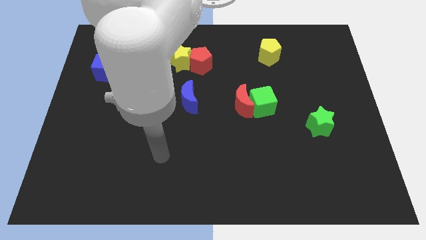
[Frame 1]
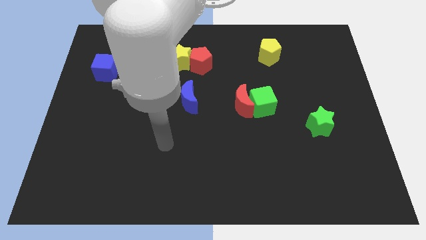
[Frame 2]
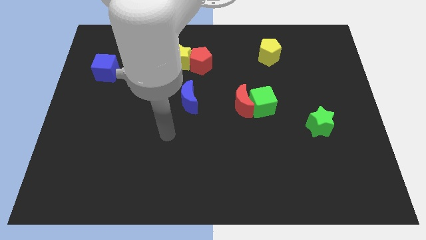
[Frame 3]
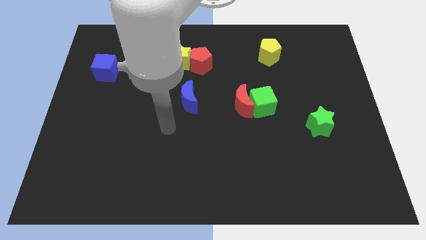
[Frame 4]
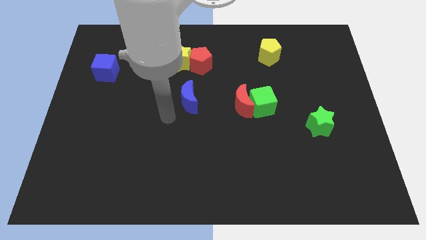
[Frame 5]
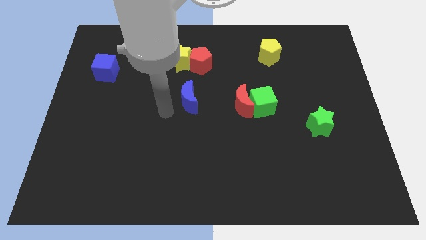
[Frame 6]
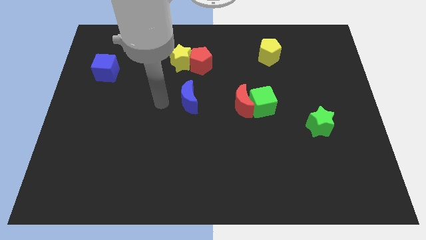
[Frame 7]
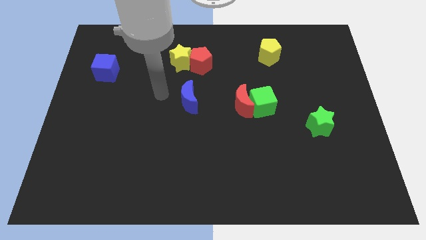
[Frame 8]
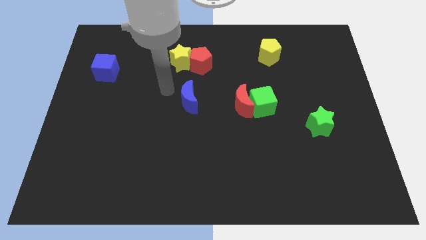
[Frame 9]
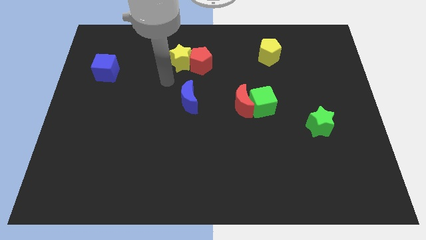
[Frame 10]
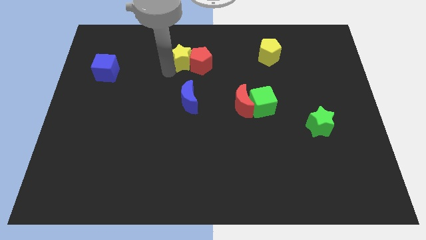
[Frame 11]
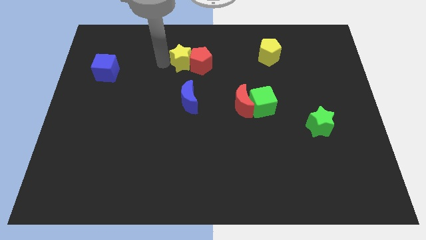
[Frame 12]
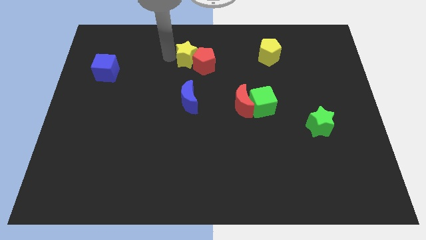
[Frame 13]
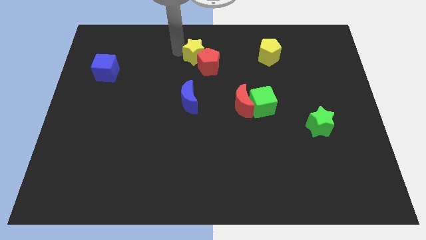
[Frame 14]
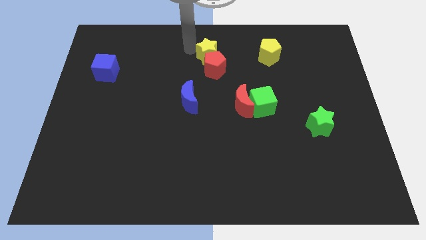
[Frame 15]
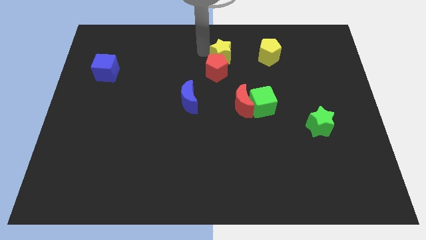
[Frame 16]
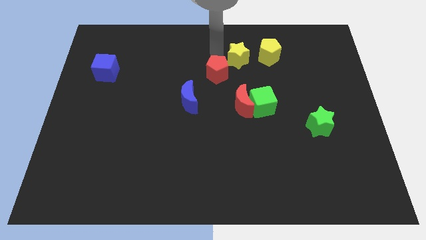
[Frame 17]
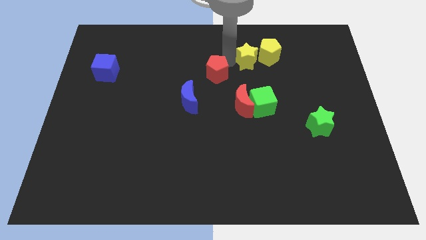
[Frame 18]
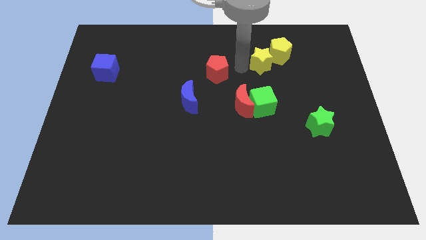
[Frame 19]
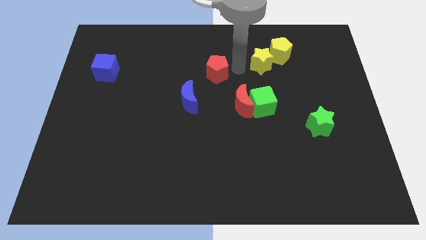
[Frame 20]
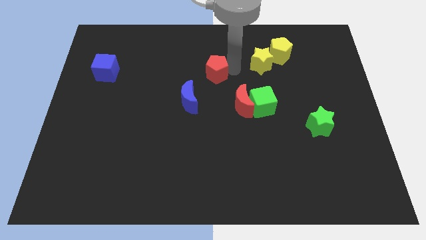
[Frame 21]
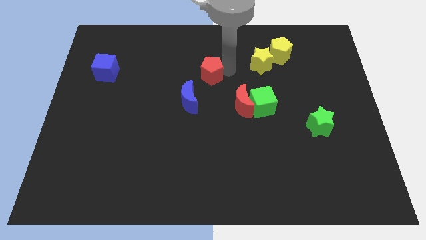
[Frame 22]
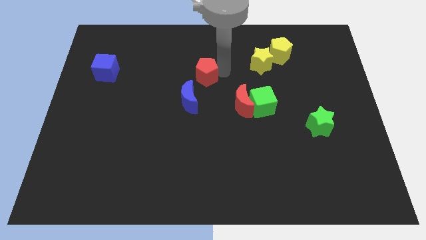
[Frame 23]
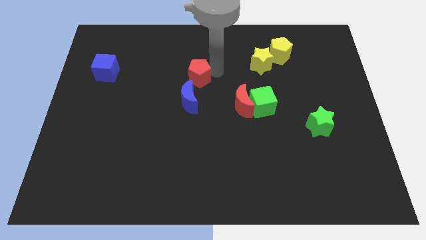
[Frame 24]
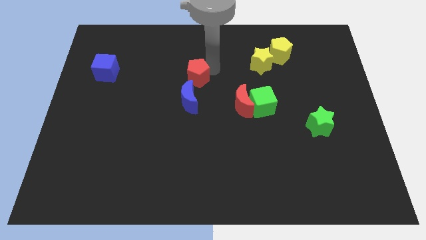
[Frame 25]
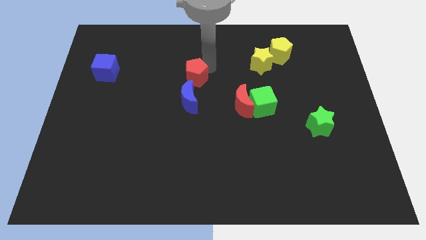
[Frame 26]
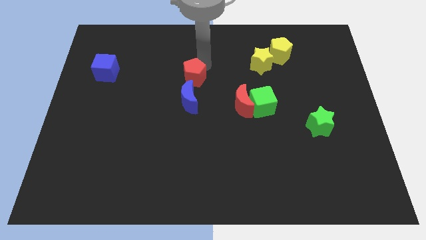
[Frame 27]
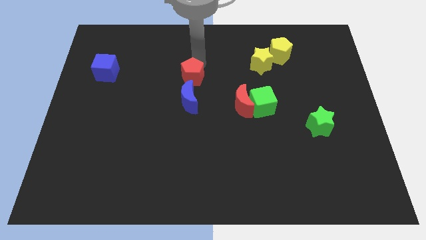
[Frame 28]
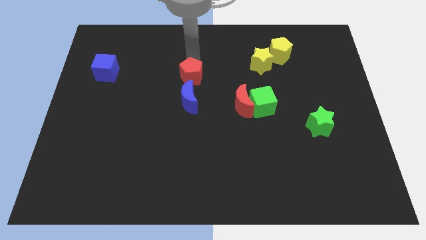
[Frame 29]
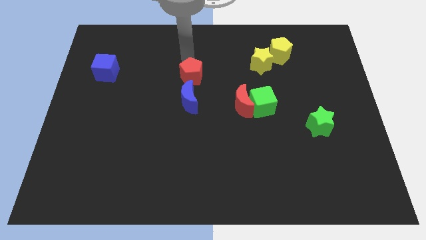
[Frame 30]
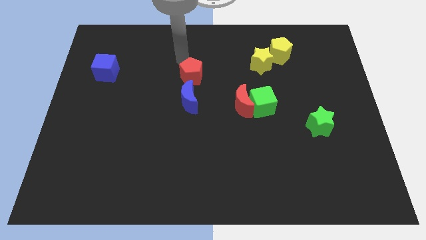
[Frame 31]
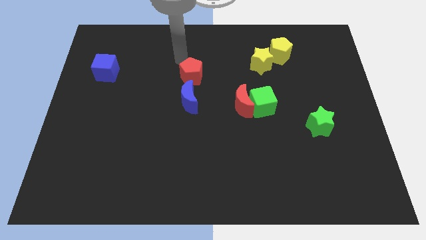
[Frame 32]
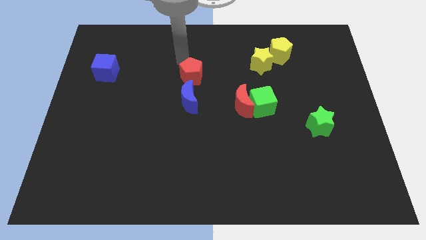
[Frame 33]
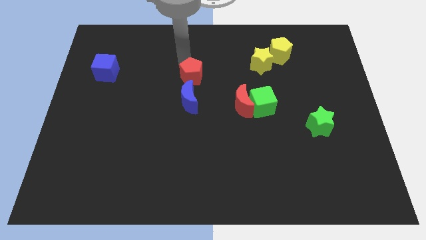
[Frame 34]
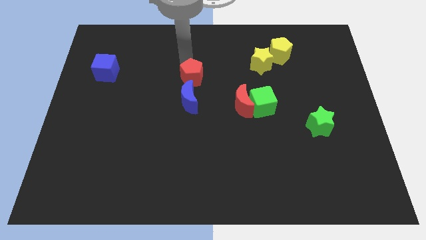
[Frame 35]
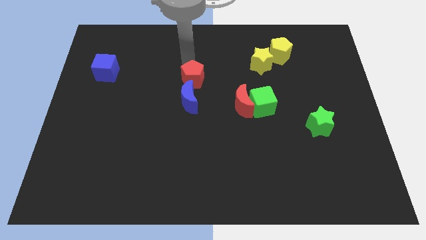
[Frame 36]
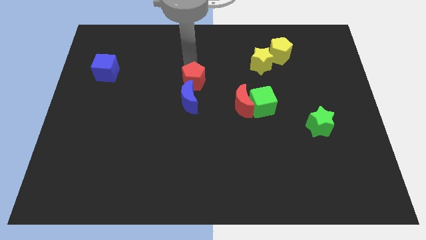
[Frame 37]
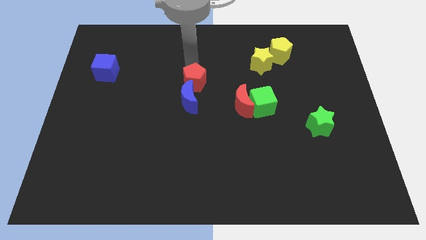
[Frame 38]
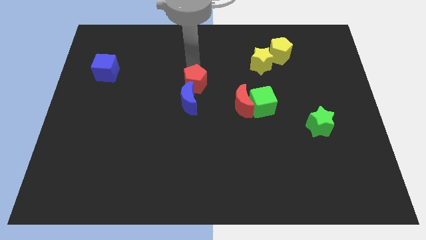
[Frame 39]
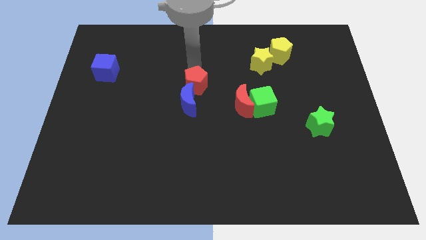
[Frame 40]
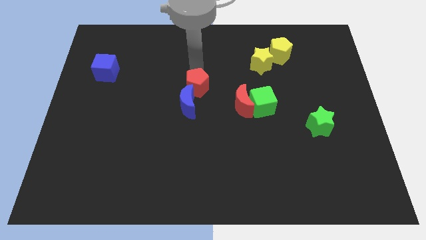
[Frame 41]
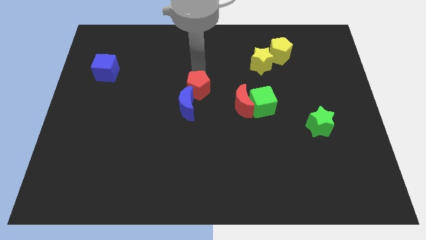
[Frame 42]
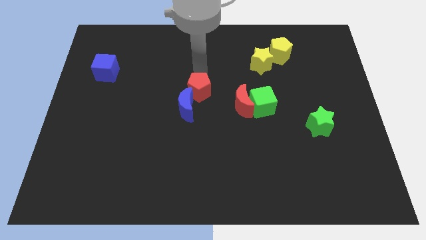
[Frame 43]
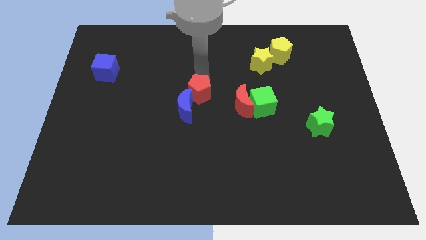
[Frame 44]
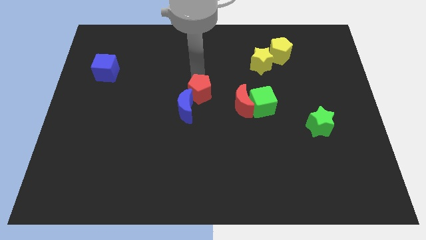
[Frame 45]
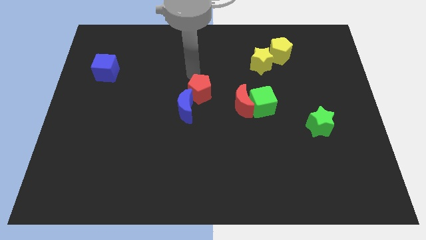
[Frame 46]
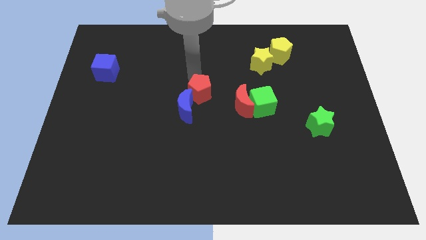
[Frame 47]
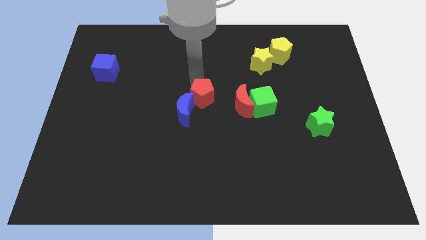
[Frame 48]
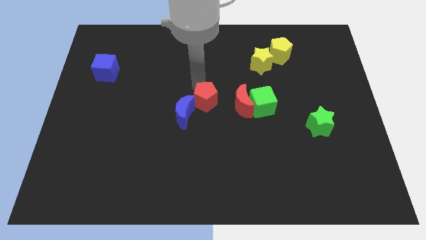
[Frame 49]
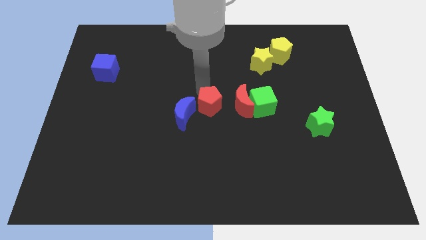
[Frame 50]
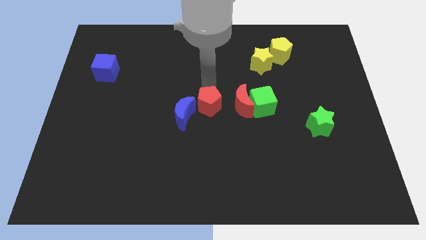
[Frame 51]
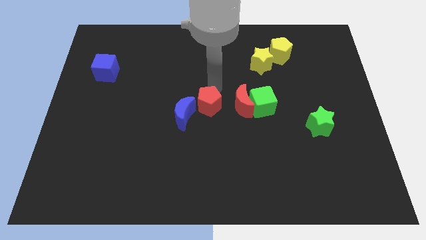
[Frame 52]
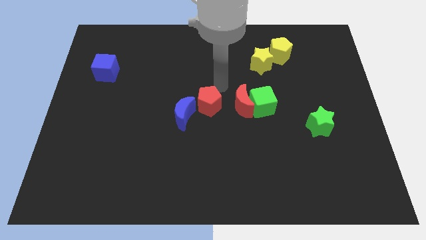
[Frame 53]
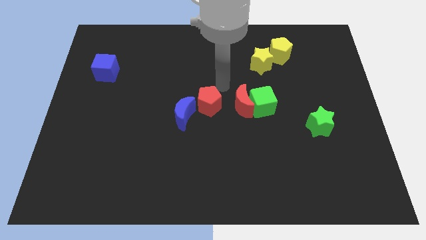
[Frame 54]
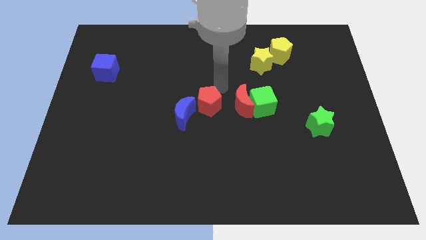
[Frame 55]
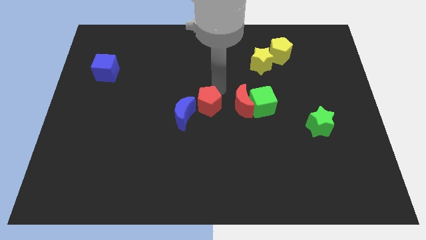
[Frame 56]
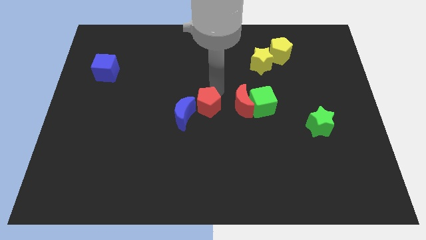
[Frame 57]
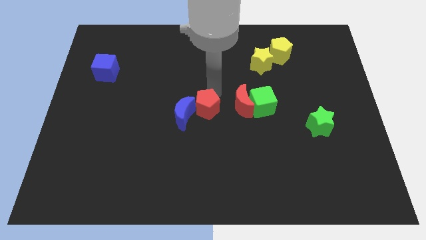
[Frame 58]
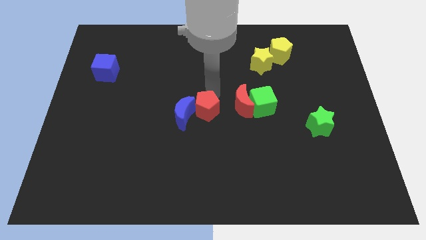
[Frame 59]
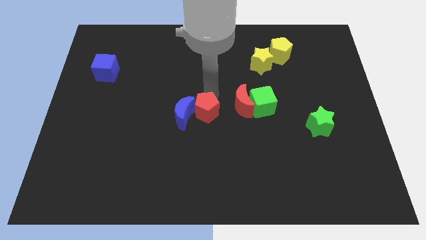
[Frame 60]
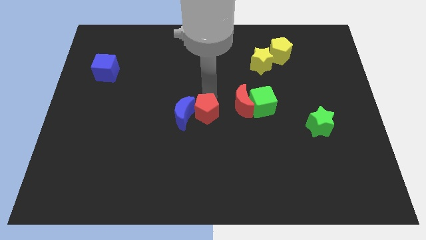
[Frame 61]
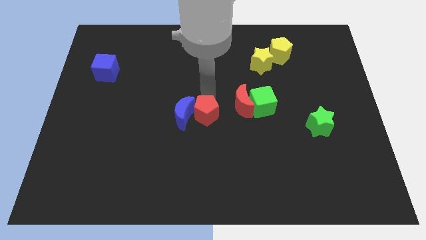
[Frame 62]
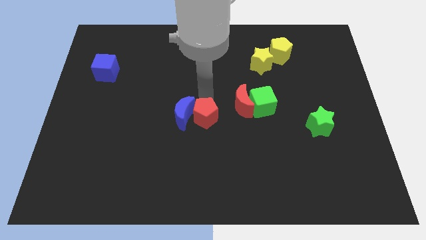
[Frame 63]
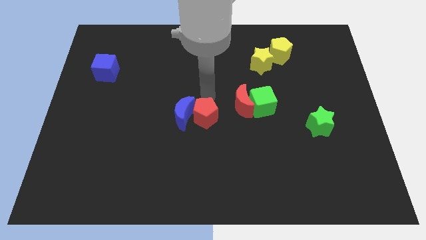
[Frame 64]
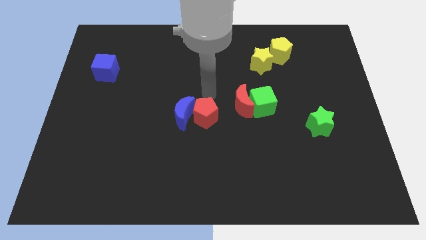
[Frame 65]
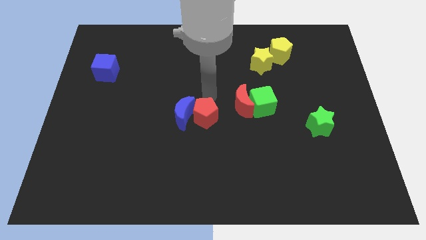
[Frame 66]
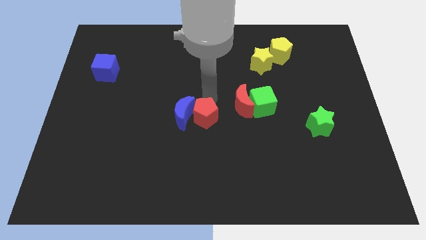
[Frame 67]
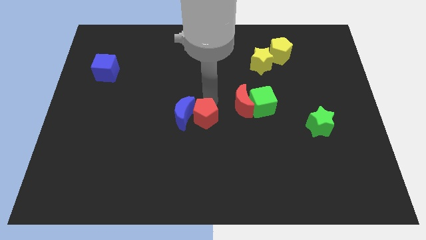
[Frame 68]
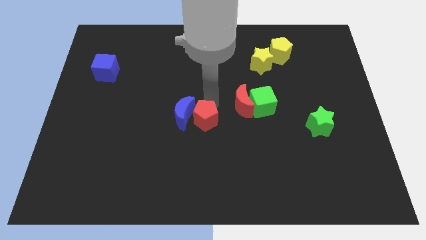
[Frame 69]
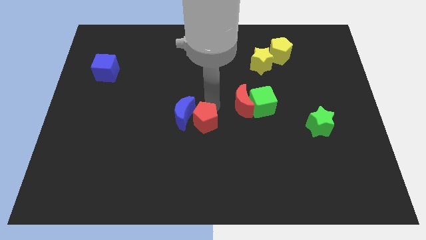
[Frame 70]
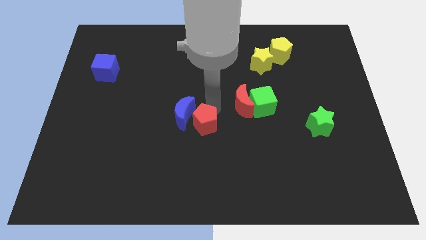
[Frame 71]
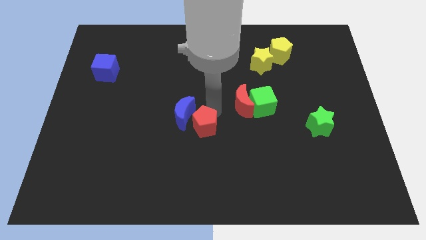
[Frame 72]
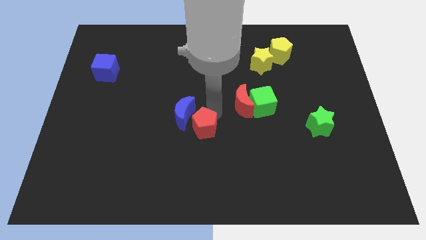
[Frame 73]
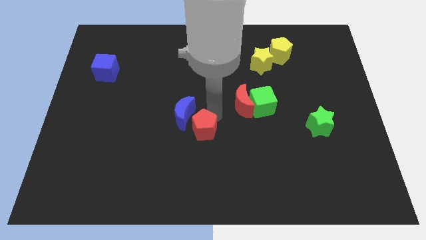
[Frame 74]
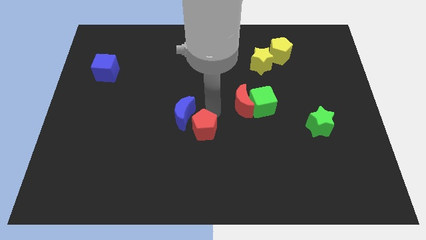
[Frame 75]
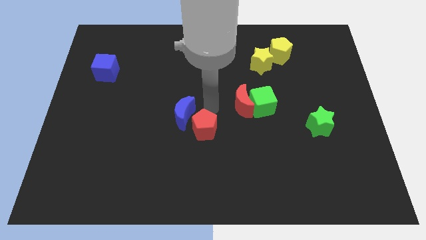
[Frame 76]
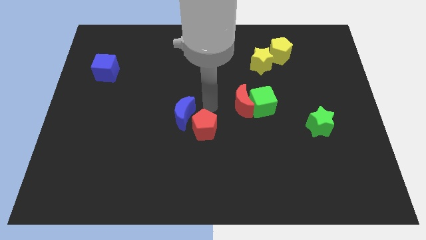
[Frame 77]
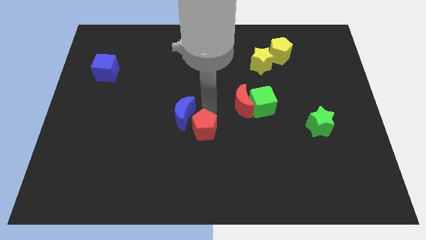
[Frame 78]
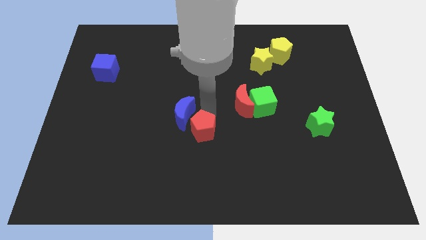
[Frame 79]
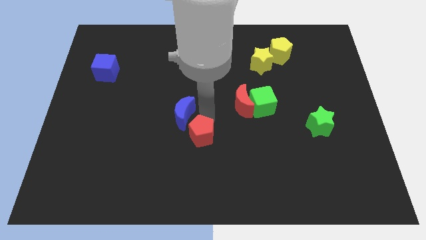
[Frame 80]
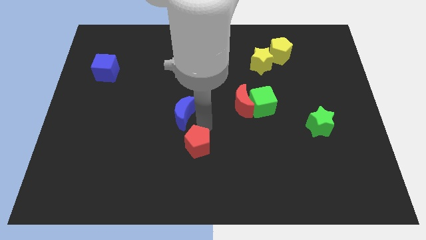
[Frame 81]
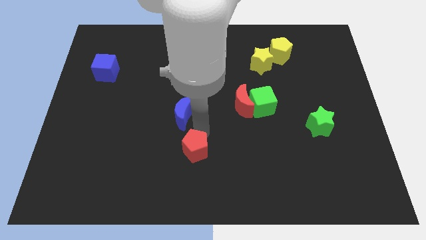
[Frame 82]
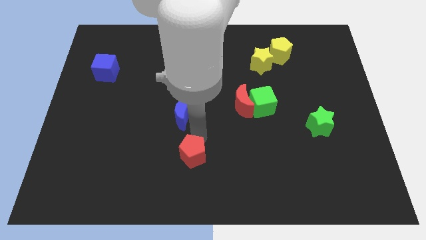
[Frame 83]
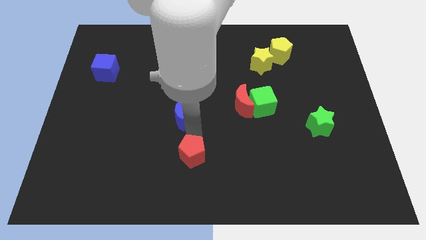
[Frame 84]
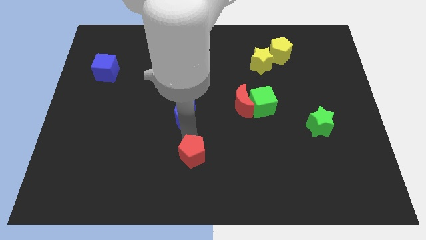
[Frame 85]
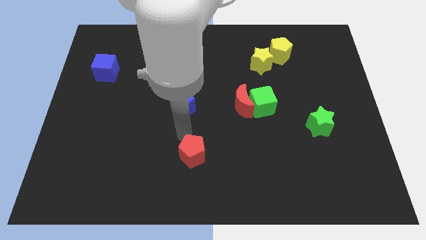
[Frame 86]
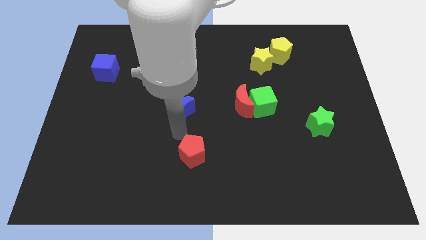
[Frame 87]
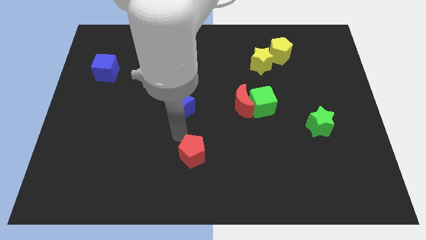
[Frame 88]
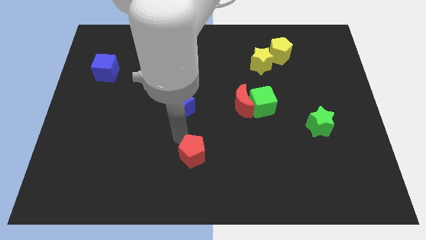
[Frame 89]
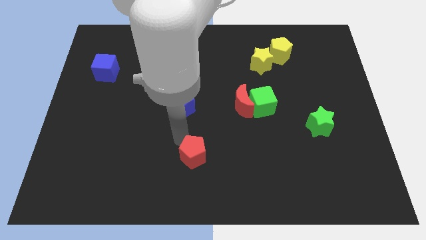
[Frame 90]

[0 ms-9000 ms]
put the red pentagon to the bottom
